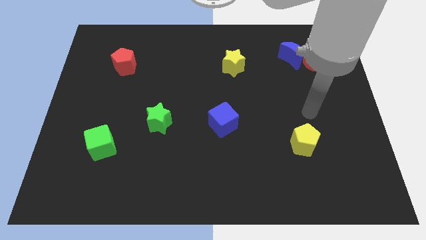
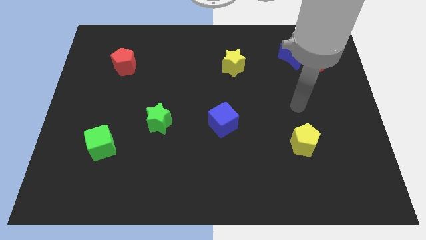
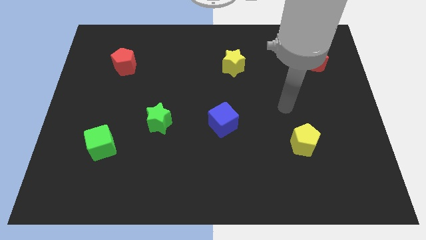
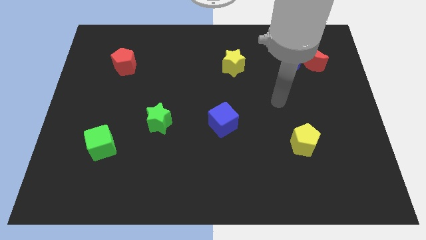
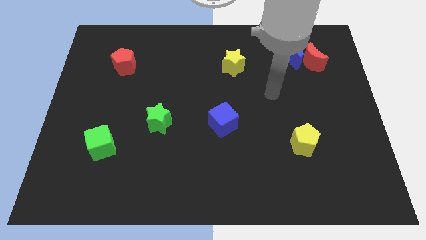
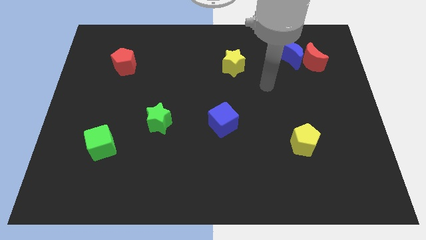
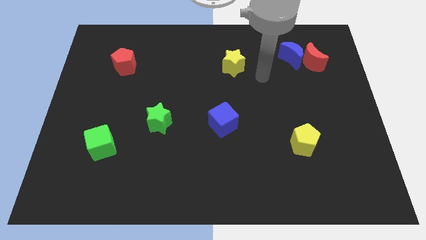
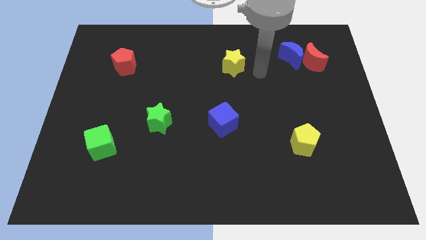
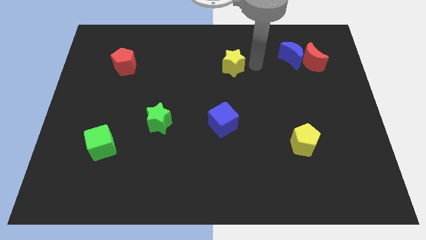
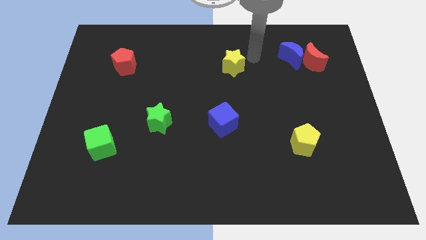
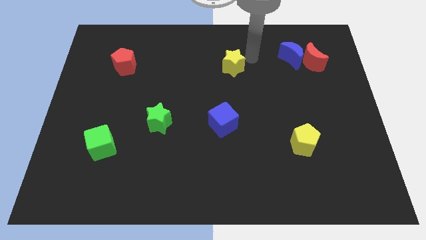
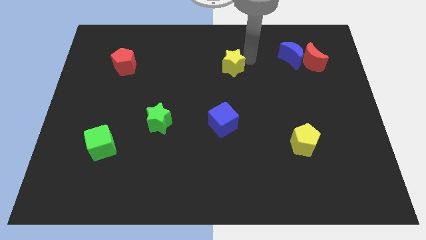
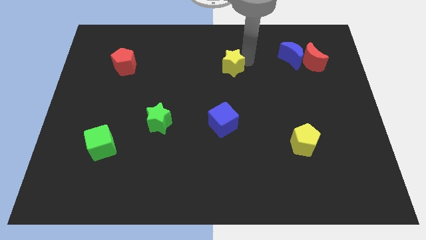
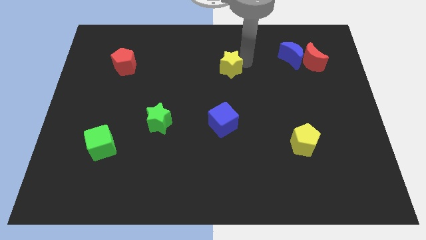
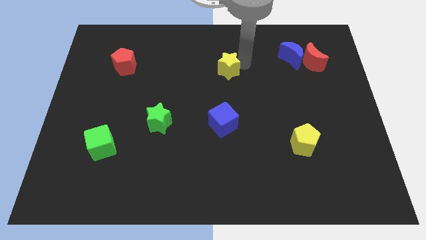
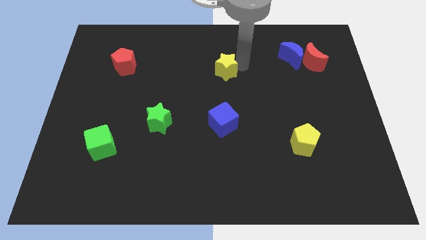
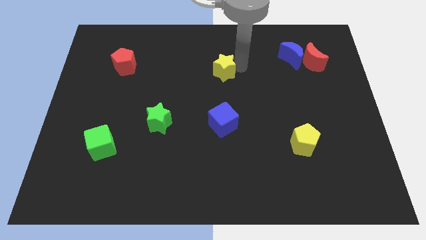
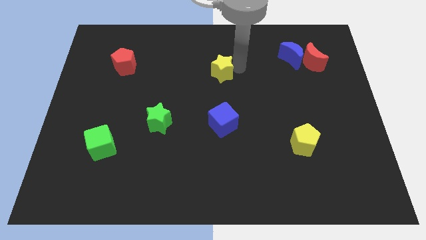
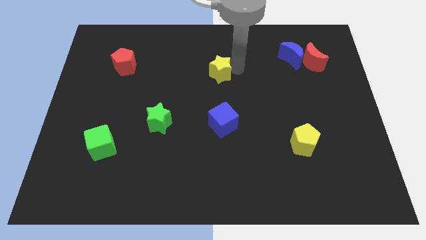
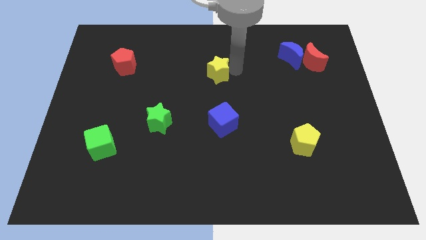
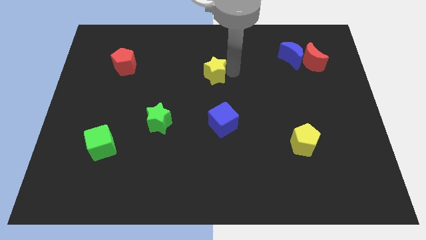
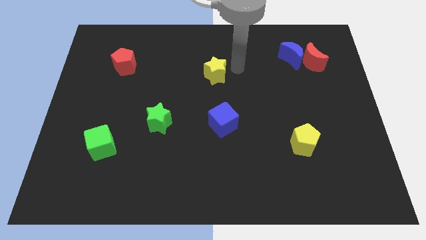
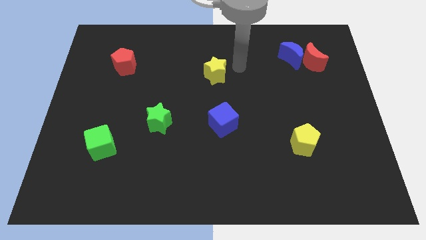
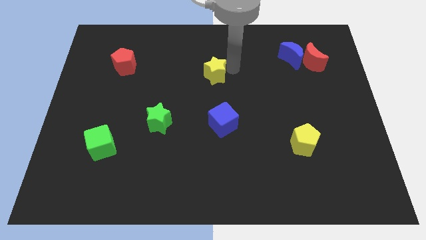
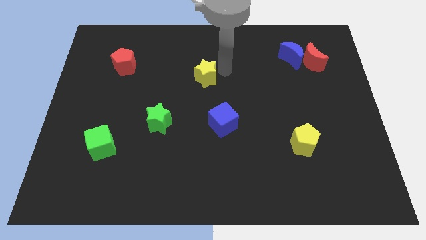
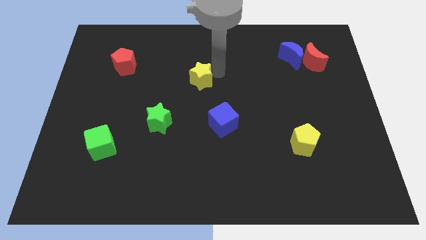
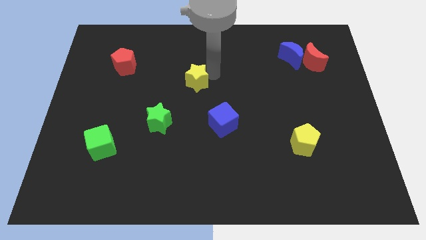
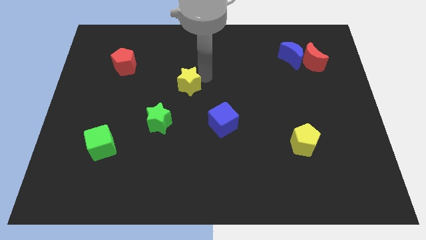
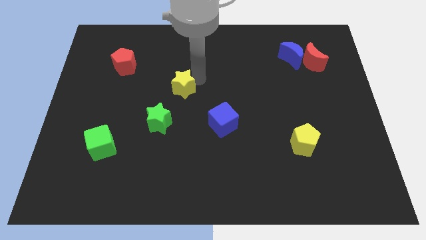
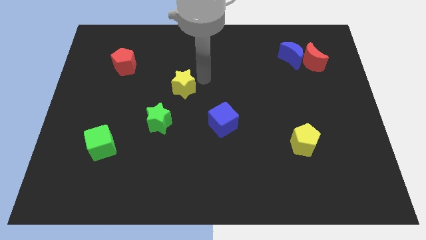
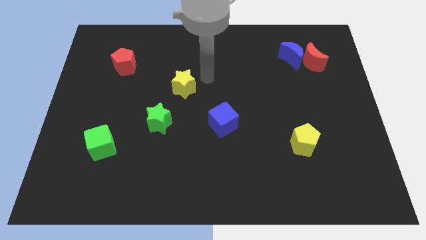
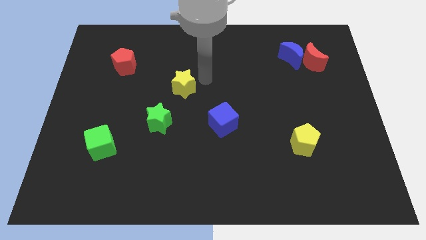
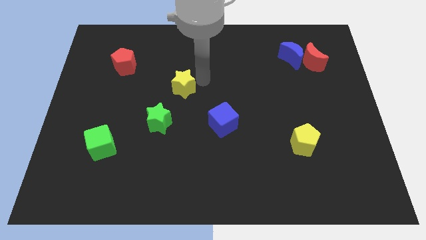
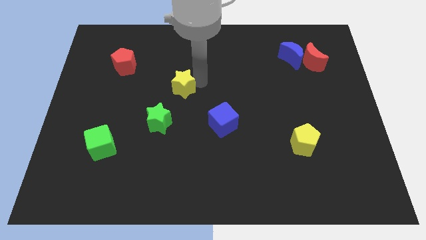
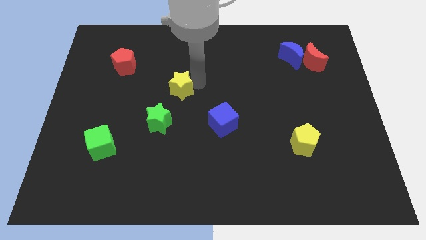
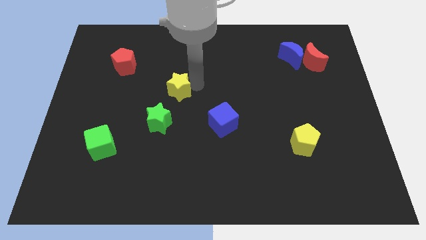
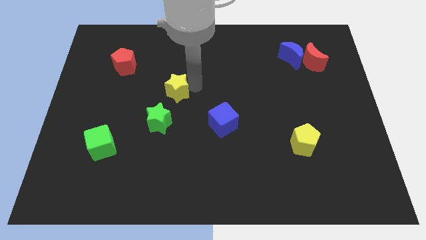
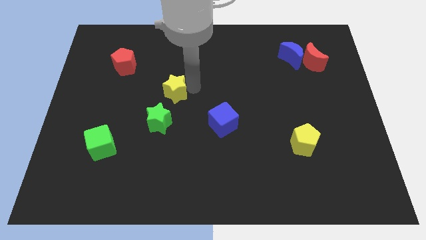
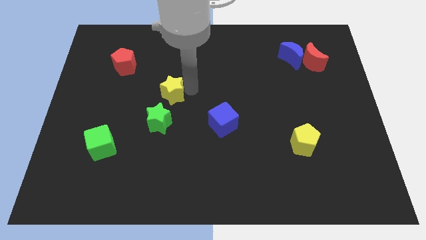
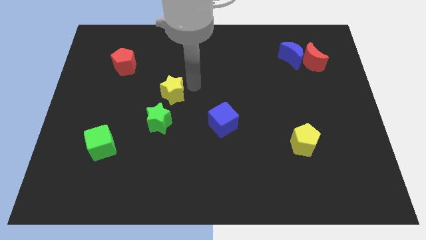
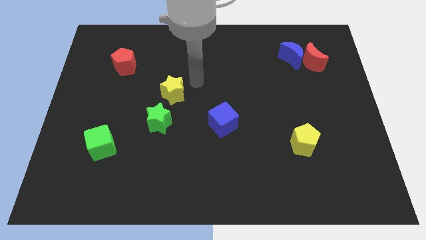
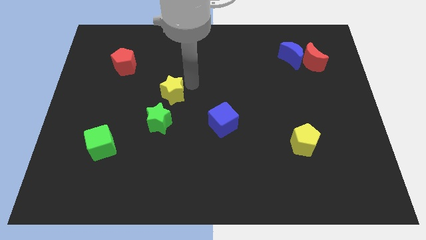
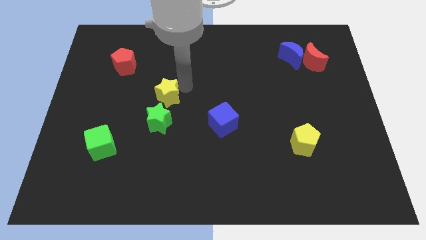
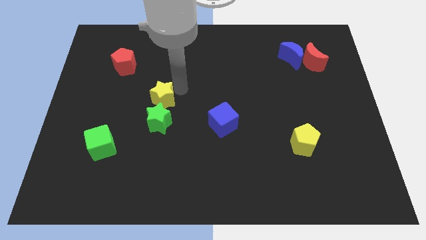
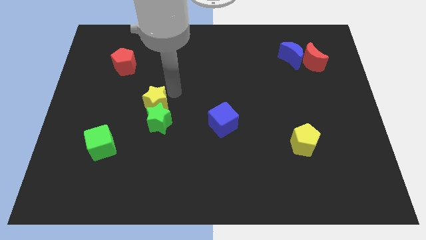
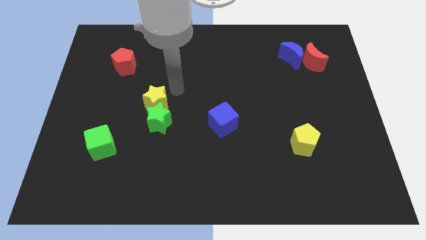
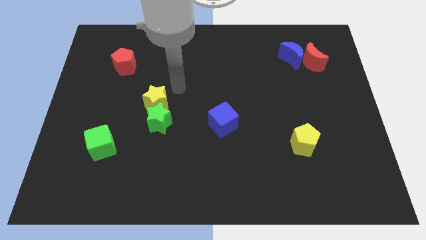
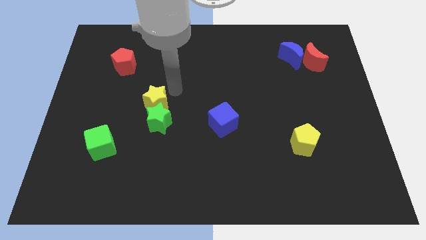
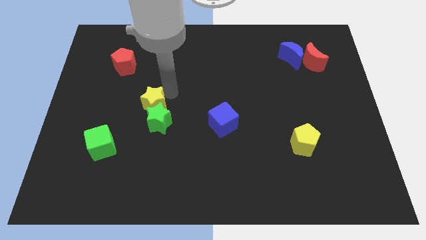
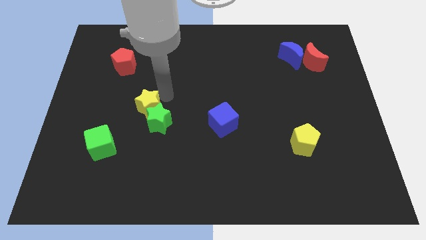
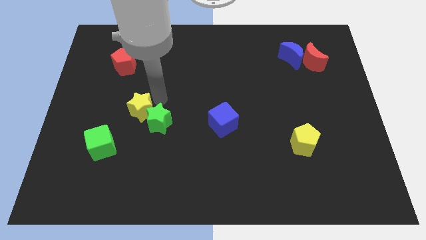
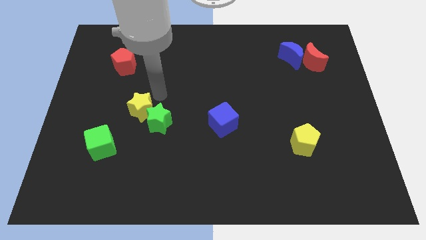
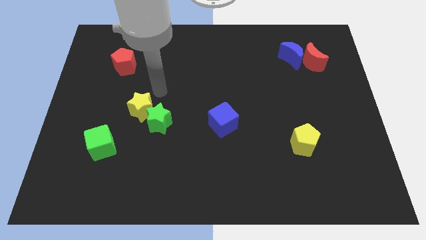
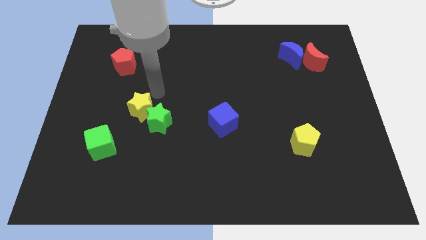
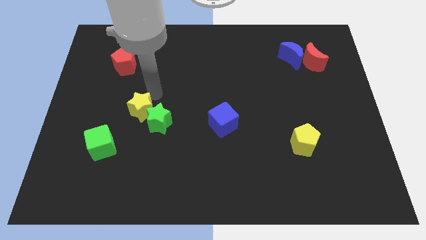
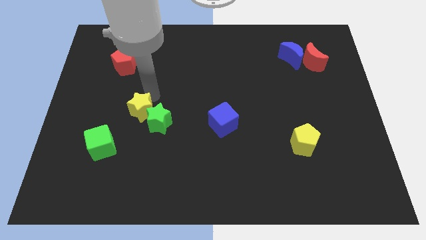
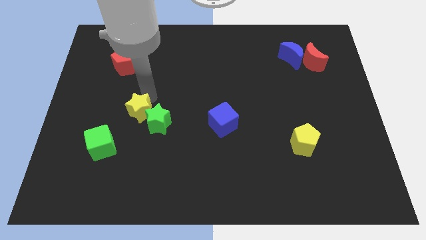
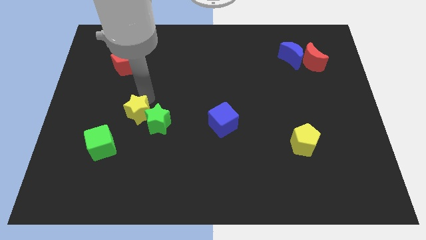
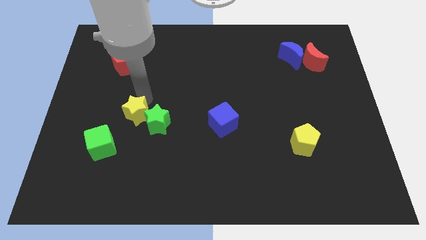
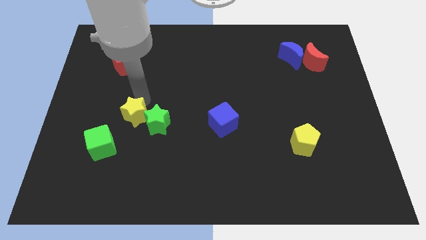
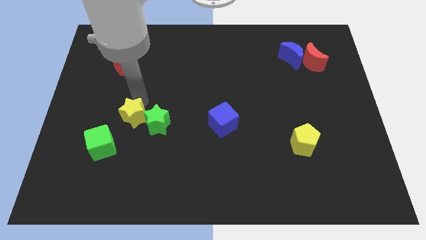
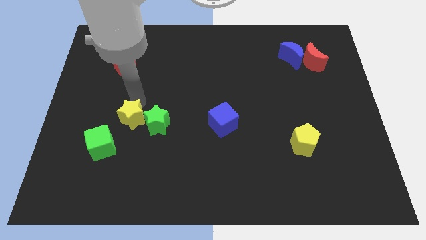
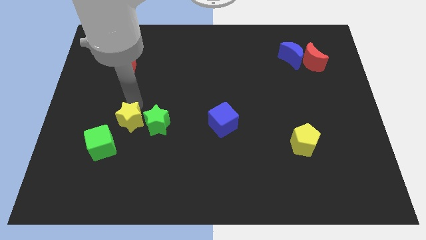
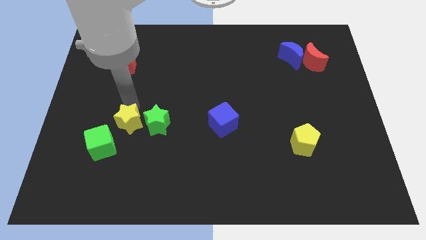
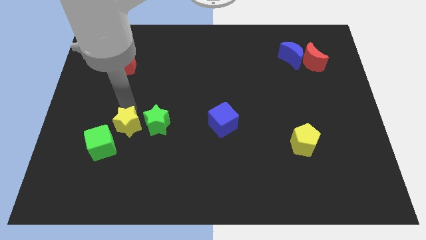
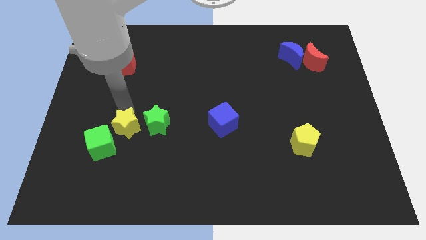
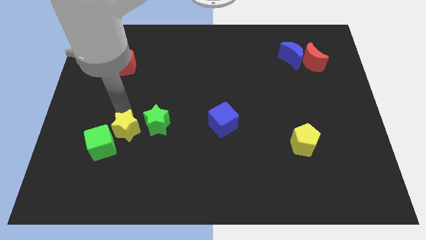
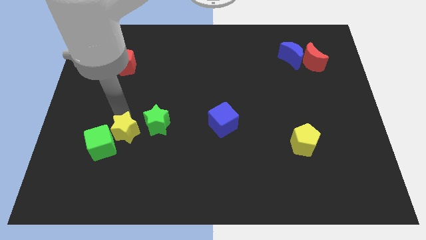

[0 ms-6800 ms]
slide the yellow star close to the green cube
